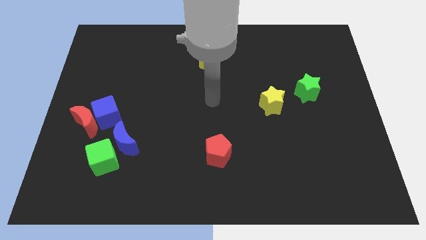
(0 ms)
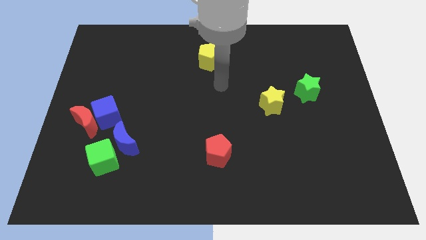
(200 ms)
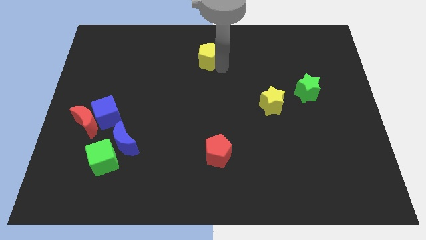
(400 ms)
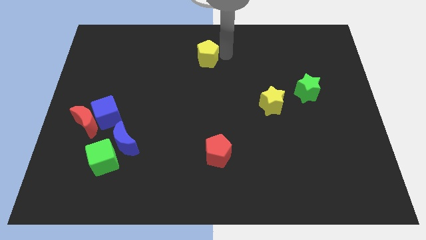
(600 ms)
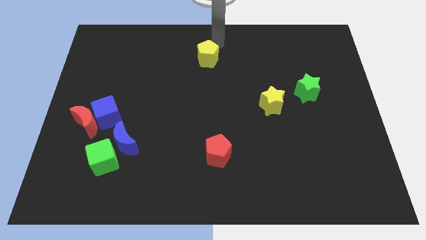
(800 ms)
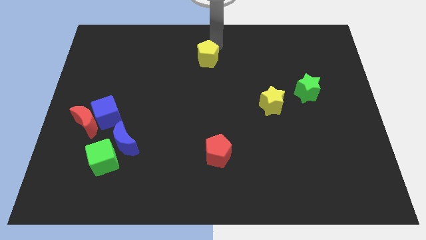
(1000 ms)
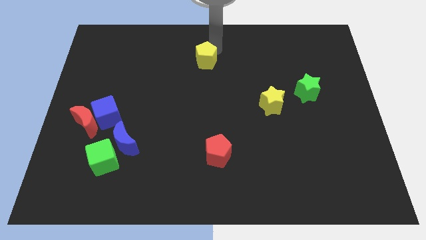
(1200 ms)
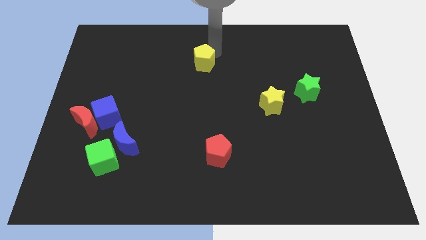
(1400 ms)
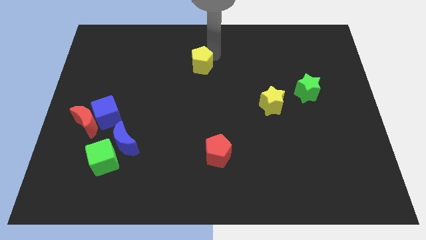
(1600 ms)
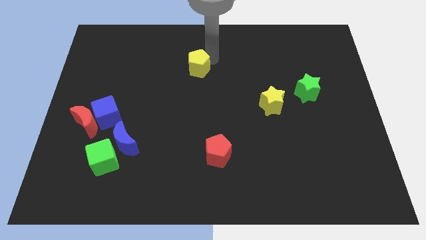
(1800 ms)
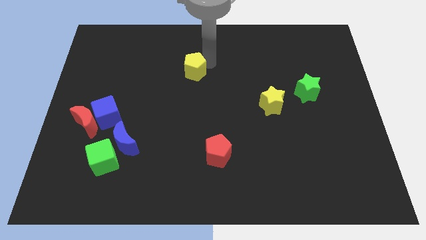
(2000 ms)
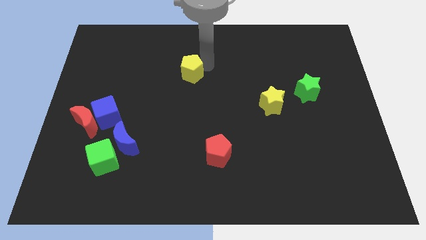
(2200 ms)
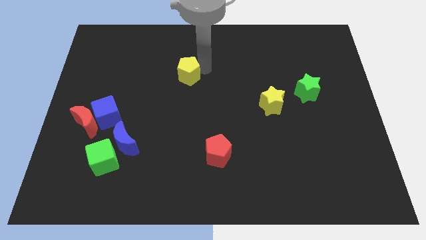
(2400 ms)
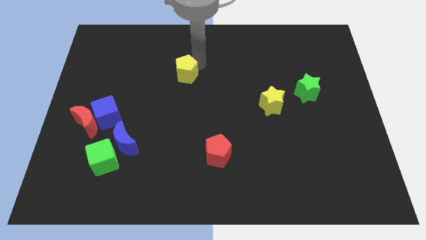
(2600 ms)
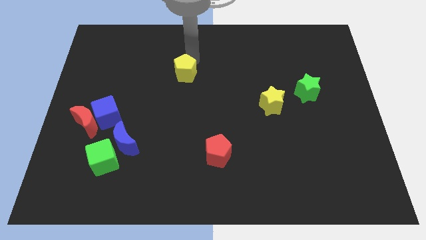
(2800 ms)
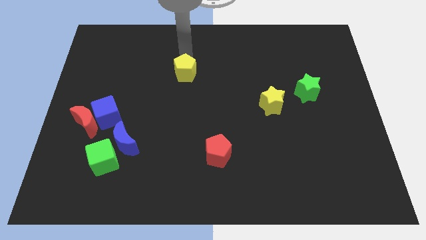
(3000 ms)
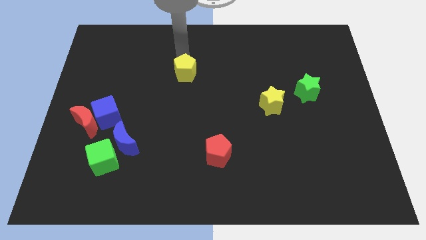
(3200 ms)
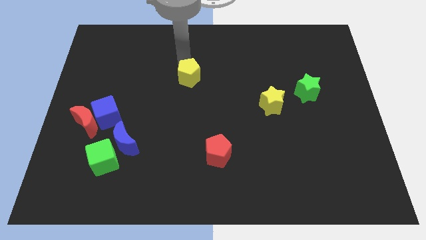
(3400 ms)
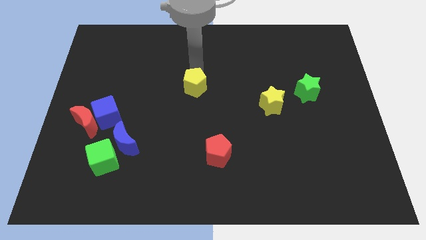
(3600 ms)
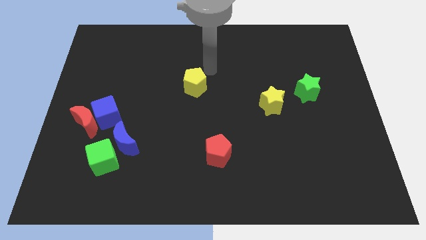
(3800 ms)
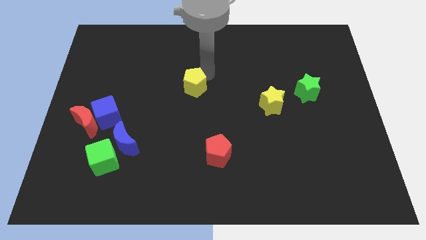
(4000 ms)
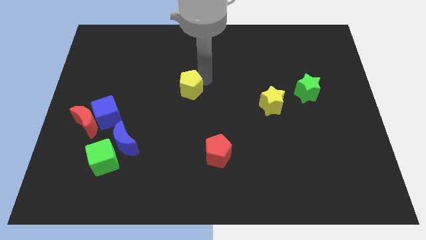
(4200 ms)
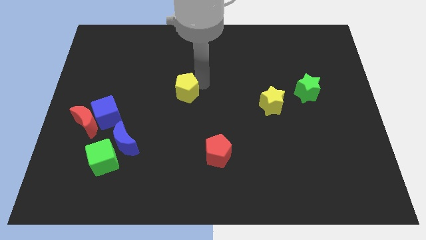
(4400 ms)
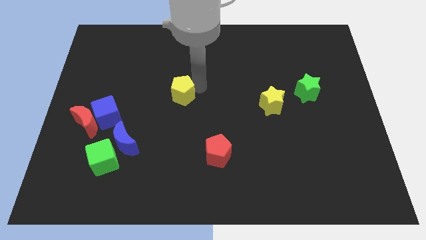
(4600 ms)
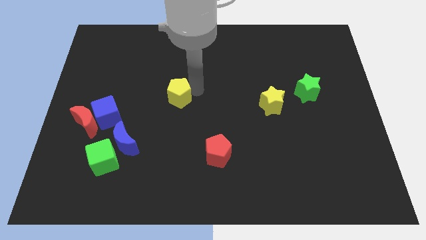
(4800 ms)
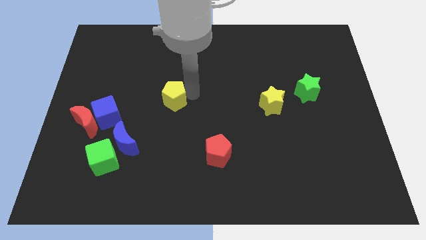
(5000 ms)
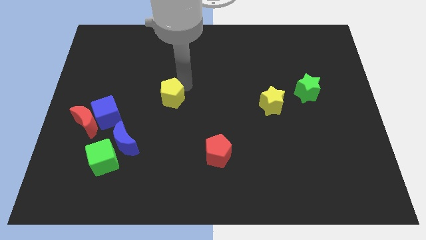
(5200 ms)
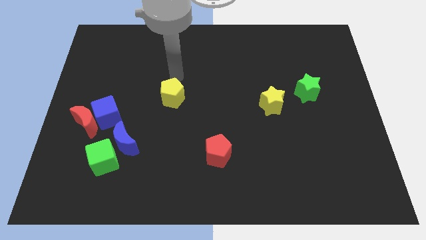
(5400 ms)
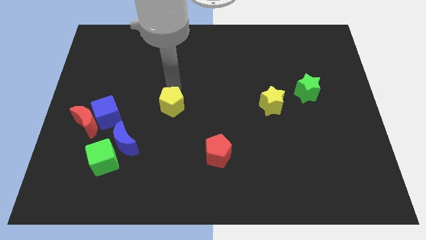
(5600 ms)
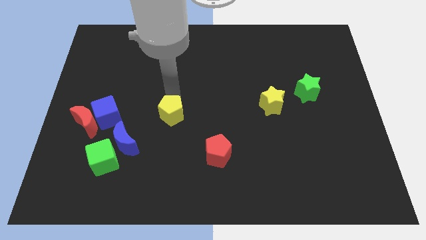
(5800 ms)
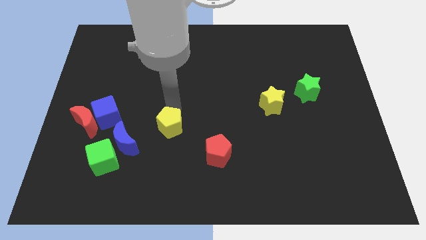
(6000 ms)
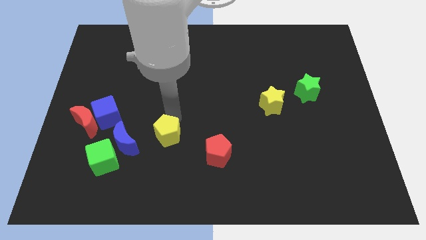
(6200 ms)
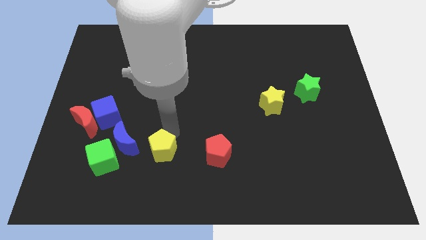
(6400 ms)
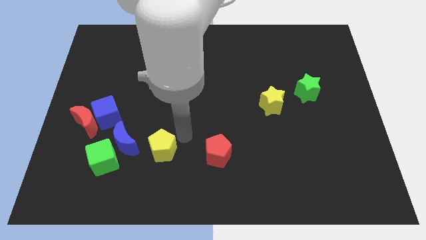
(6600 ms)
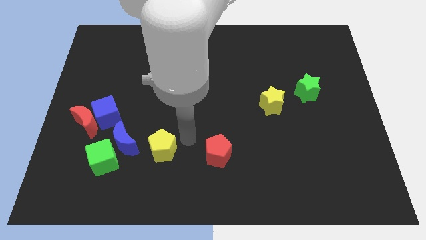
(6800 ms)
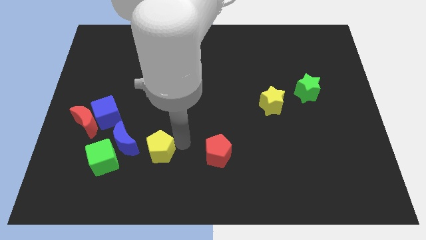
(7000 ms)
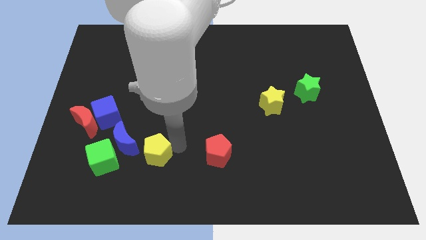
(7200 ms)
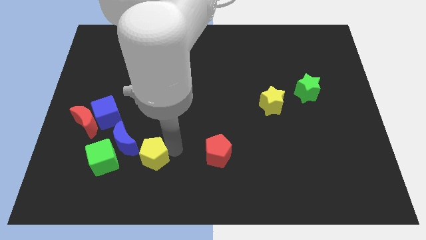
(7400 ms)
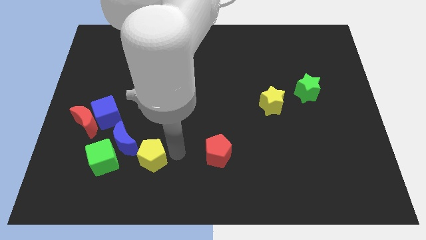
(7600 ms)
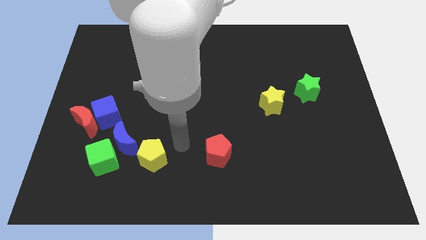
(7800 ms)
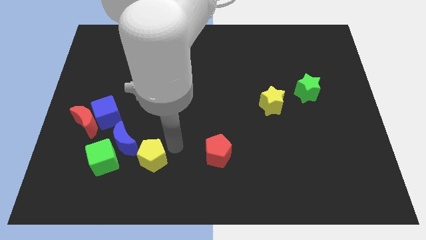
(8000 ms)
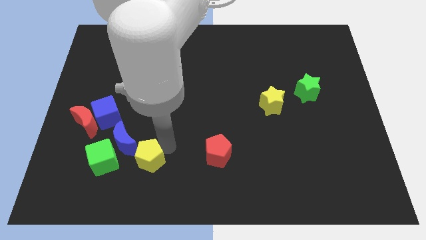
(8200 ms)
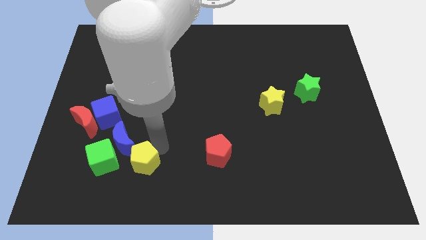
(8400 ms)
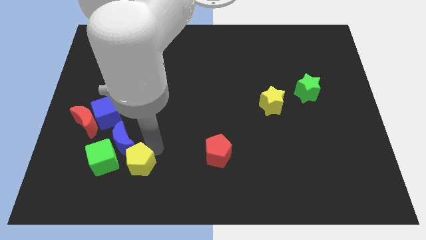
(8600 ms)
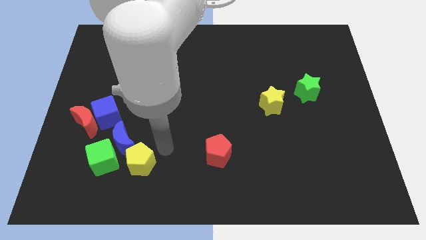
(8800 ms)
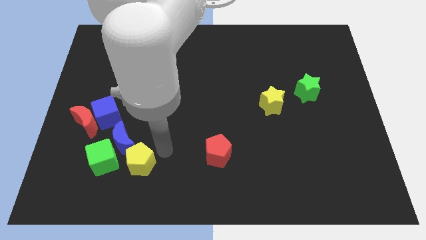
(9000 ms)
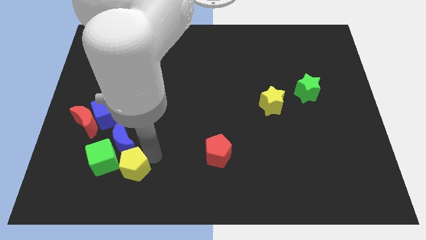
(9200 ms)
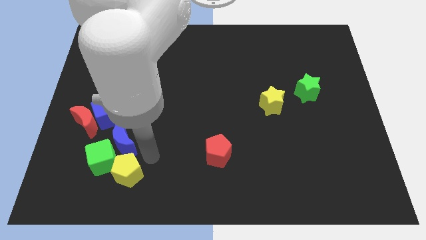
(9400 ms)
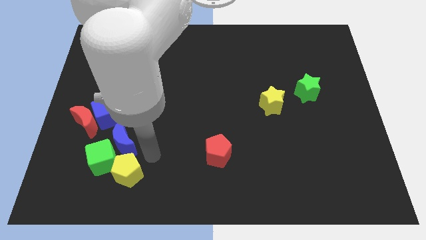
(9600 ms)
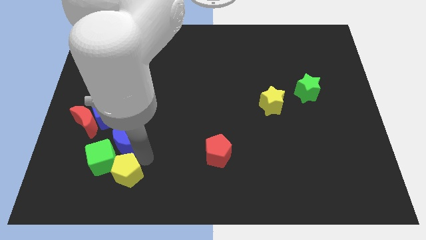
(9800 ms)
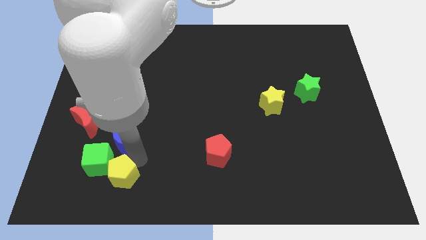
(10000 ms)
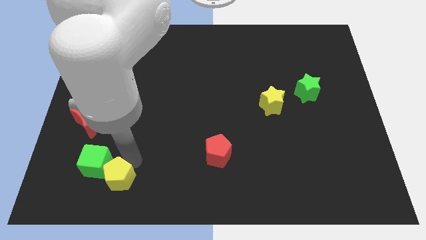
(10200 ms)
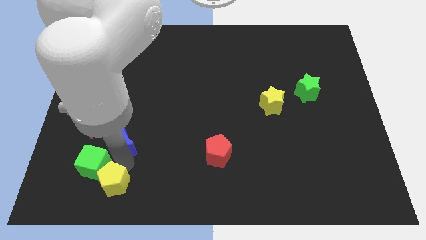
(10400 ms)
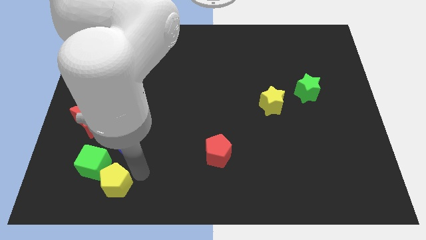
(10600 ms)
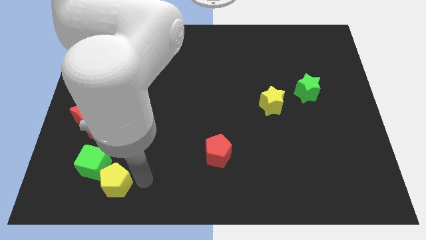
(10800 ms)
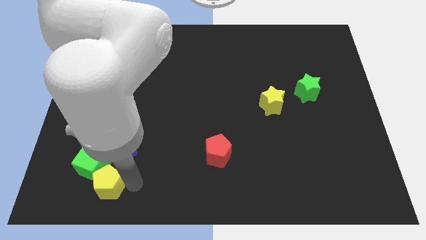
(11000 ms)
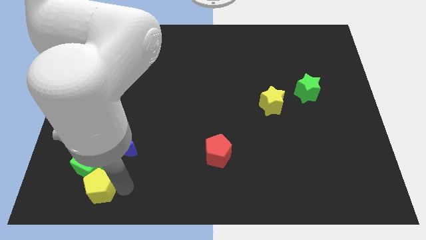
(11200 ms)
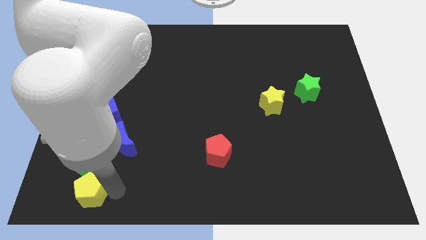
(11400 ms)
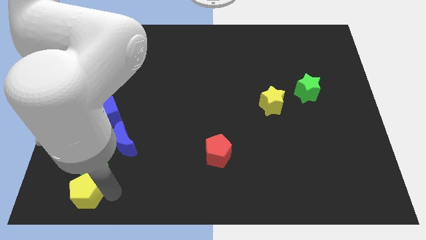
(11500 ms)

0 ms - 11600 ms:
slide the yellow pentagon to the bottom left side of the green cube

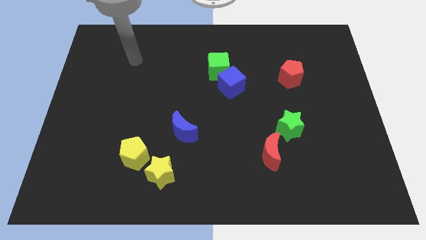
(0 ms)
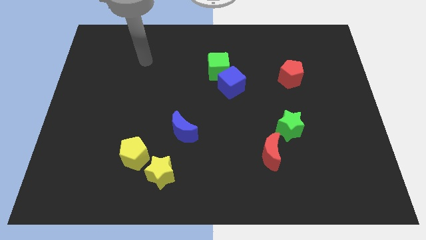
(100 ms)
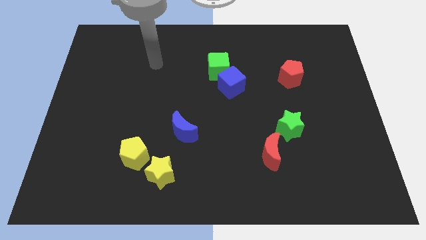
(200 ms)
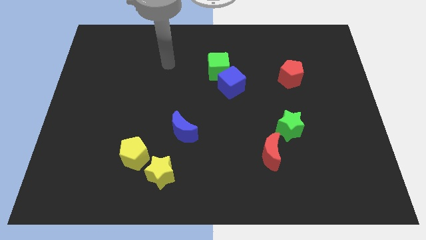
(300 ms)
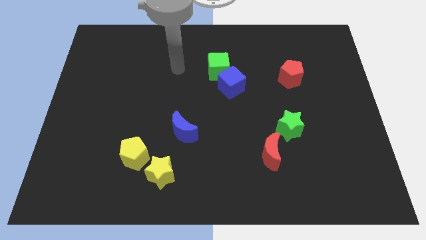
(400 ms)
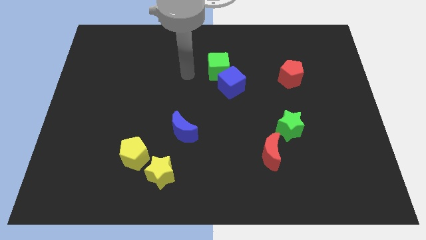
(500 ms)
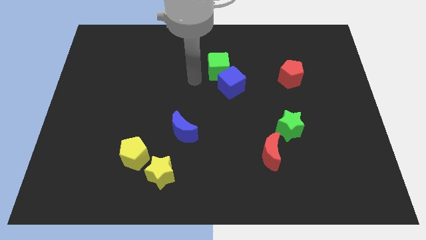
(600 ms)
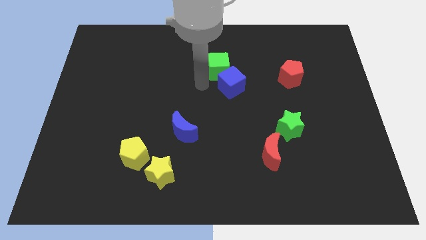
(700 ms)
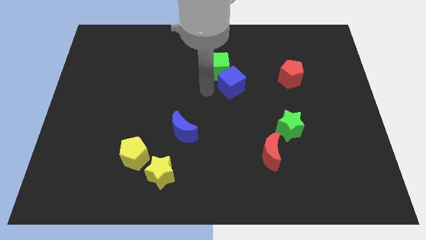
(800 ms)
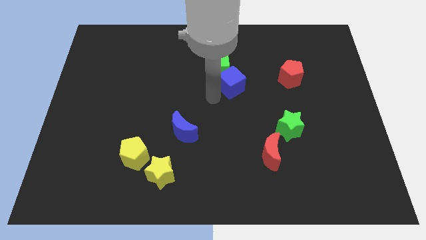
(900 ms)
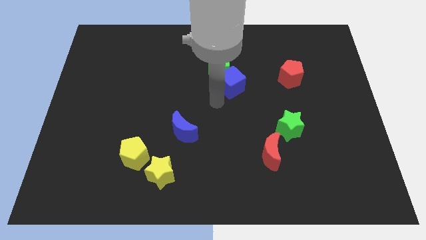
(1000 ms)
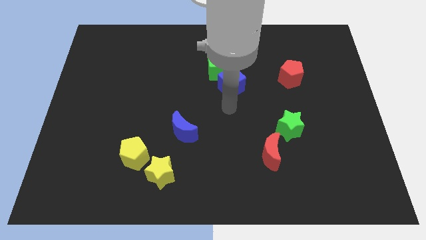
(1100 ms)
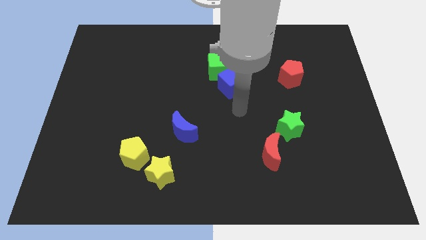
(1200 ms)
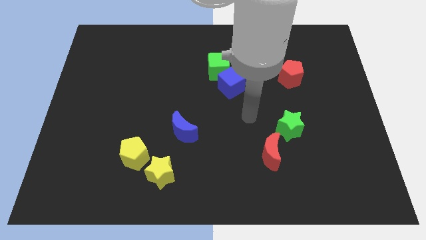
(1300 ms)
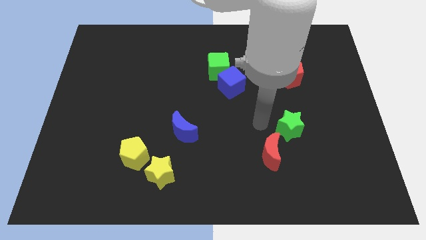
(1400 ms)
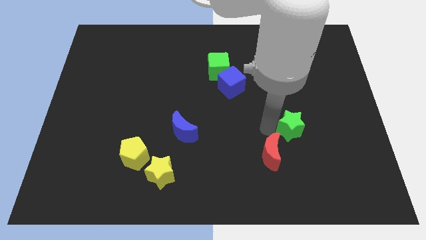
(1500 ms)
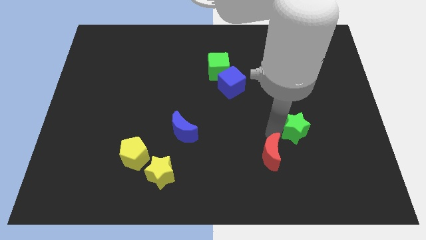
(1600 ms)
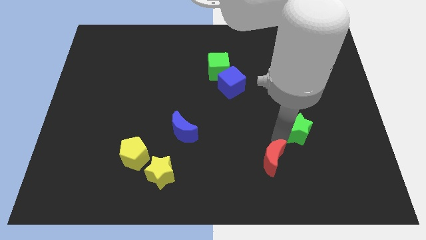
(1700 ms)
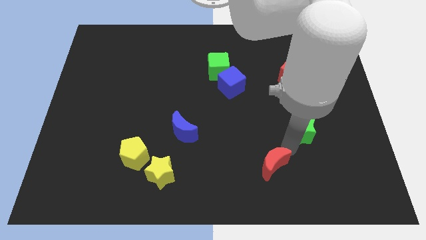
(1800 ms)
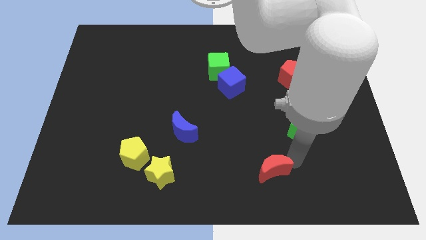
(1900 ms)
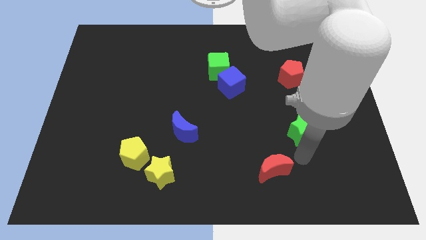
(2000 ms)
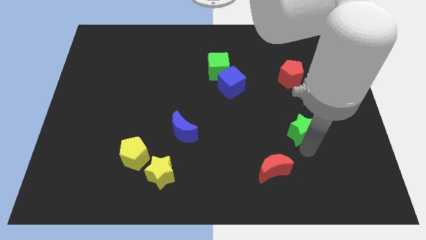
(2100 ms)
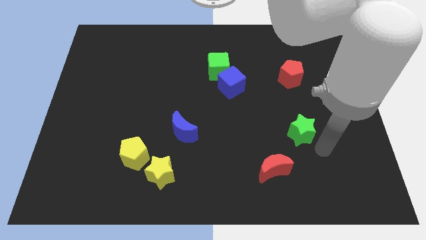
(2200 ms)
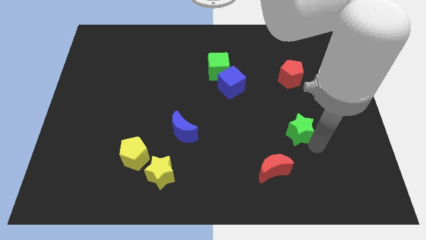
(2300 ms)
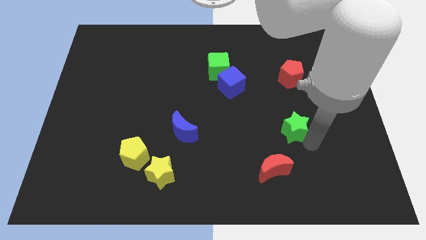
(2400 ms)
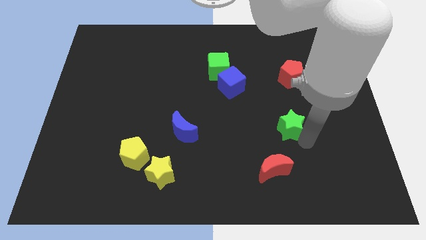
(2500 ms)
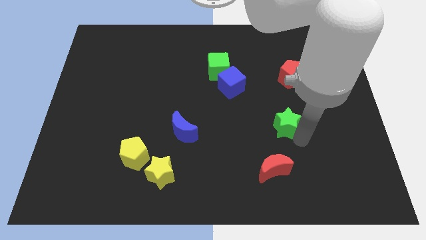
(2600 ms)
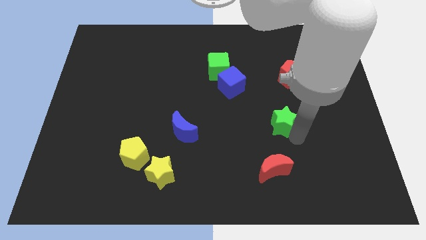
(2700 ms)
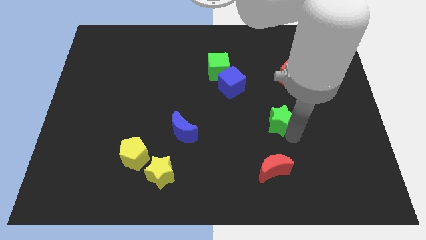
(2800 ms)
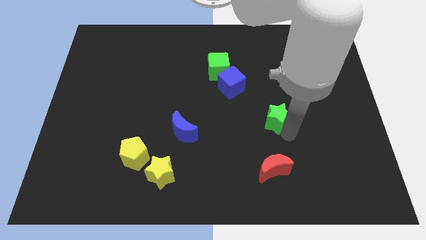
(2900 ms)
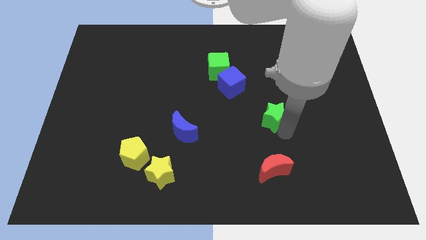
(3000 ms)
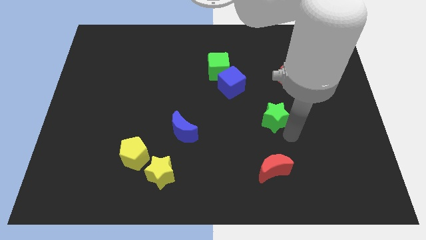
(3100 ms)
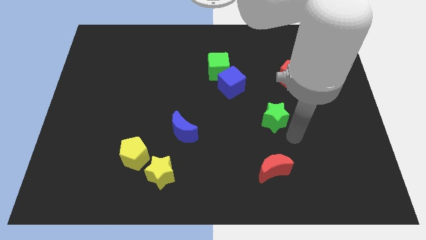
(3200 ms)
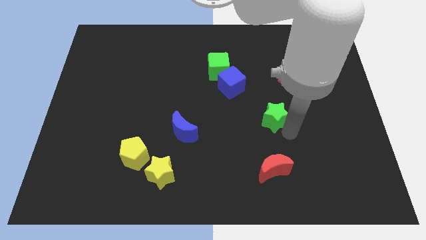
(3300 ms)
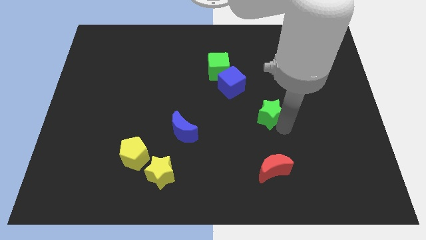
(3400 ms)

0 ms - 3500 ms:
move the green star diagonally down and to the right of the blue cube
